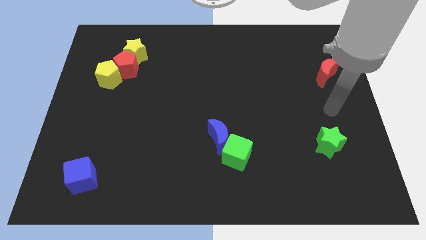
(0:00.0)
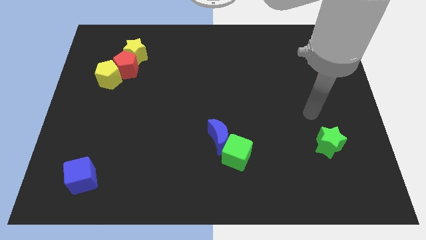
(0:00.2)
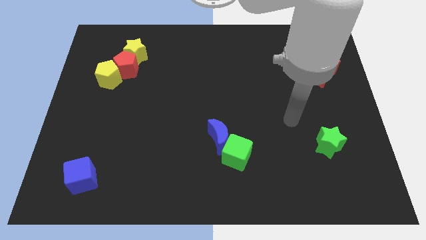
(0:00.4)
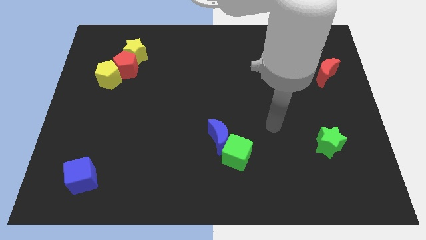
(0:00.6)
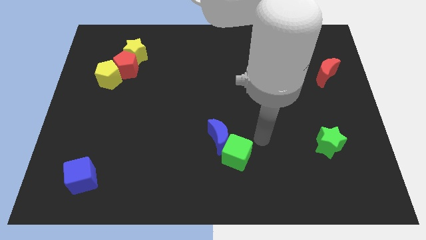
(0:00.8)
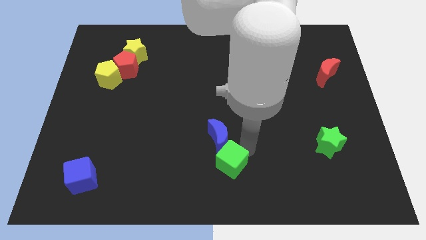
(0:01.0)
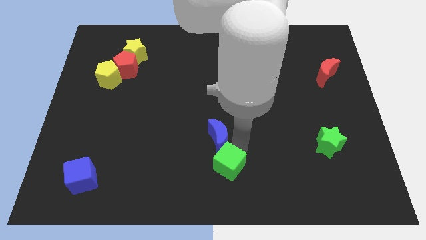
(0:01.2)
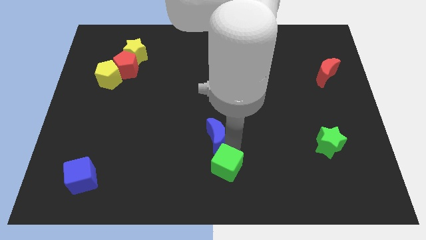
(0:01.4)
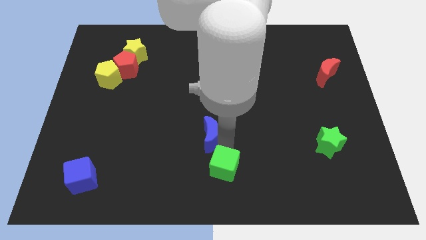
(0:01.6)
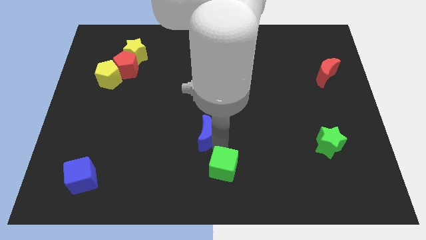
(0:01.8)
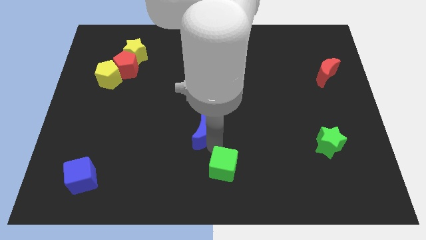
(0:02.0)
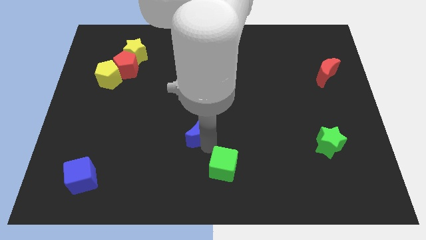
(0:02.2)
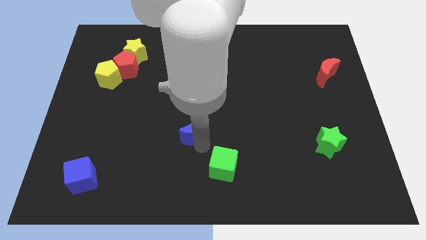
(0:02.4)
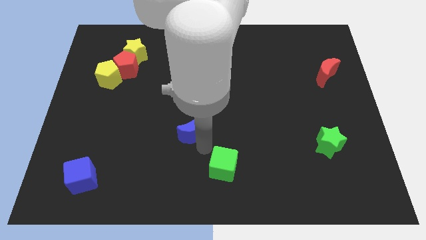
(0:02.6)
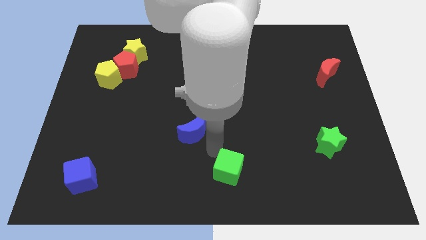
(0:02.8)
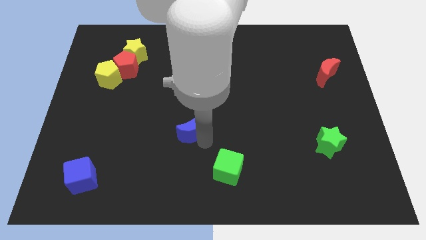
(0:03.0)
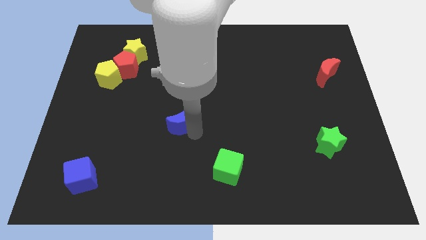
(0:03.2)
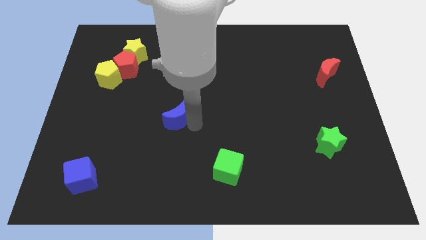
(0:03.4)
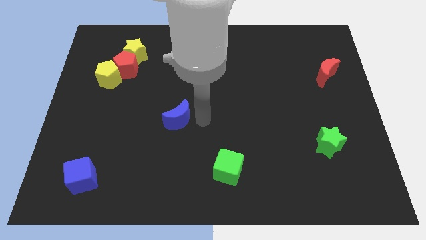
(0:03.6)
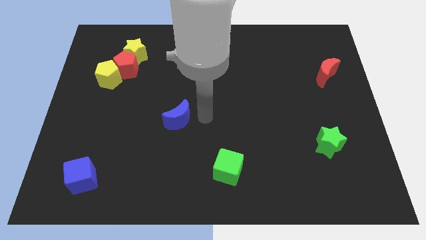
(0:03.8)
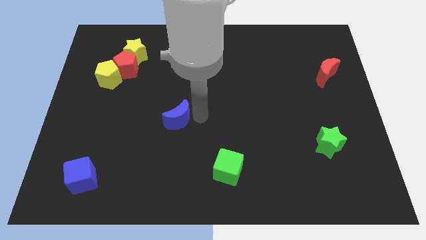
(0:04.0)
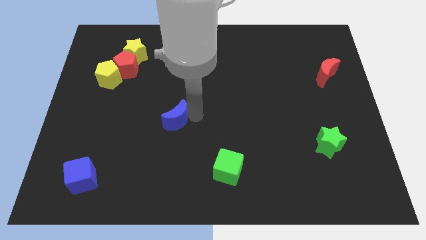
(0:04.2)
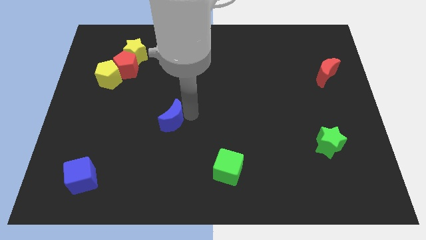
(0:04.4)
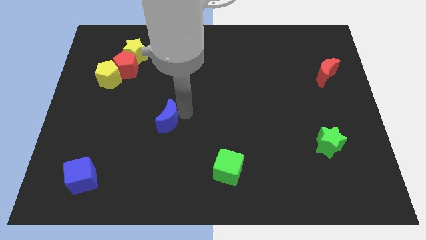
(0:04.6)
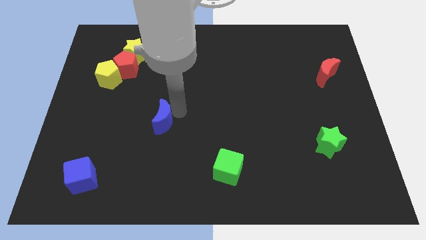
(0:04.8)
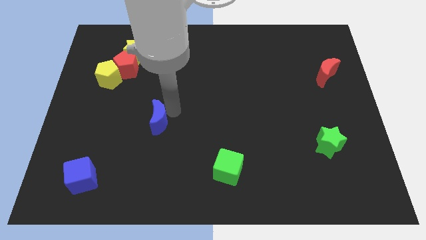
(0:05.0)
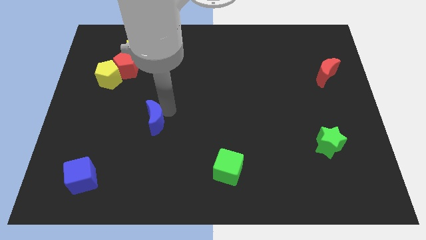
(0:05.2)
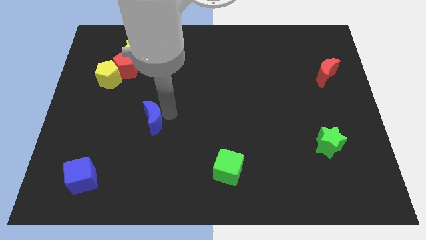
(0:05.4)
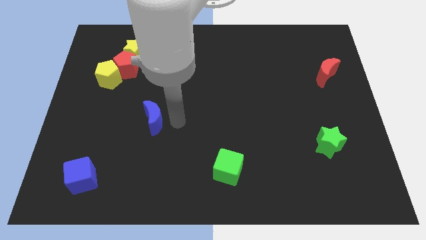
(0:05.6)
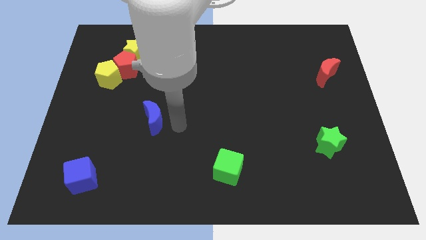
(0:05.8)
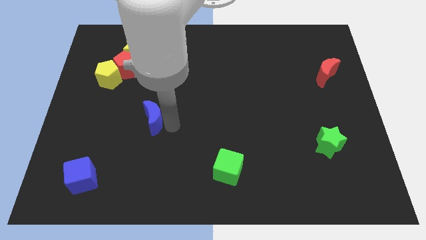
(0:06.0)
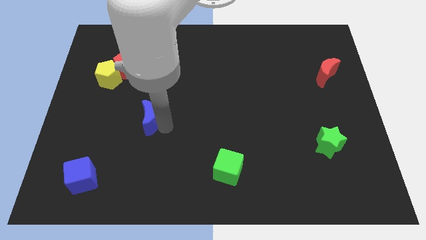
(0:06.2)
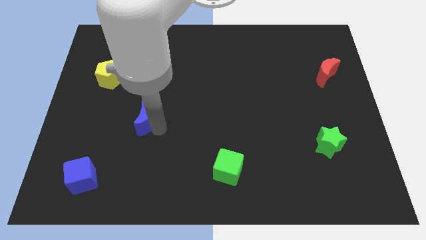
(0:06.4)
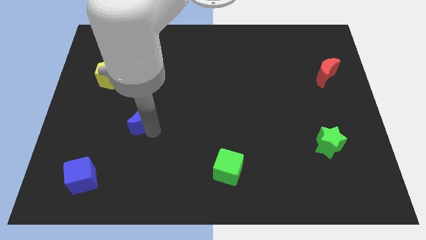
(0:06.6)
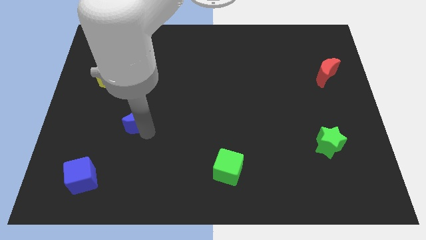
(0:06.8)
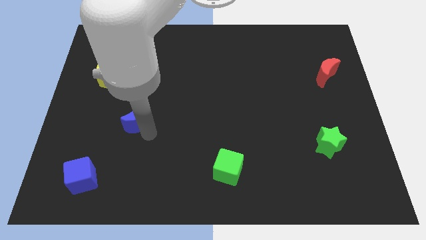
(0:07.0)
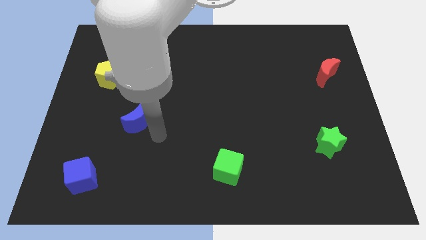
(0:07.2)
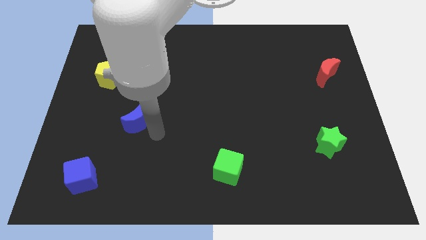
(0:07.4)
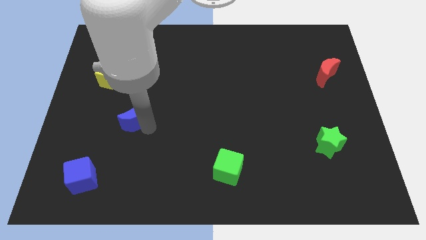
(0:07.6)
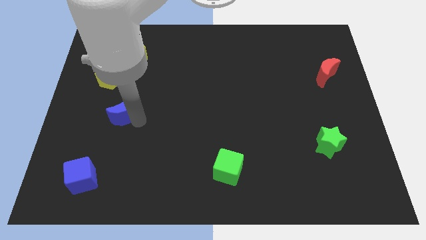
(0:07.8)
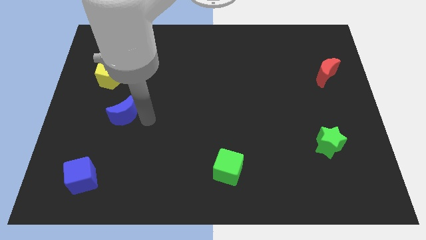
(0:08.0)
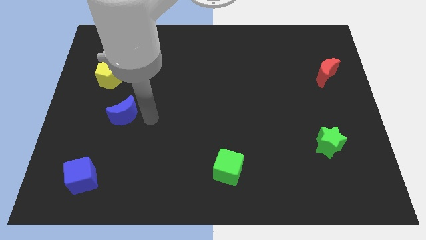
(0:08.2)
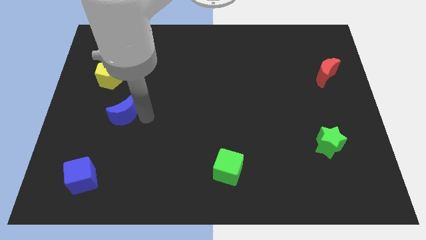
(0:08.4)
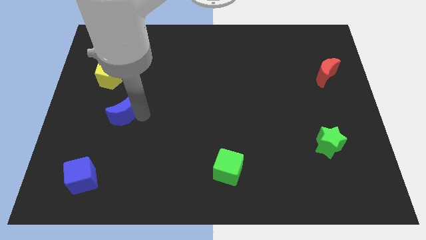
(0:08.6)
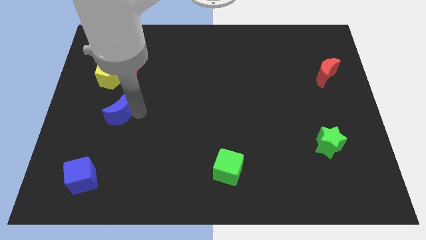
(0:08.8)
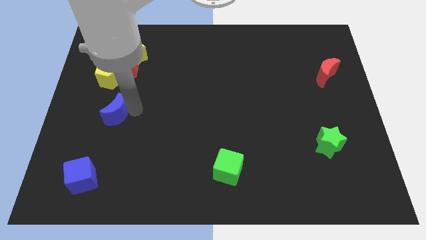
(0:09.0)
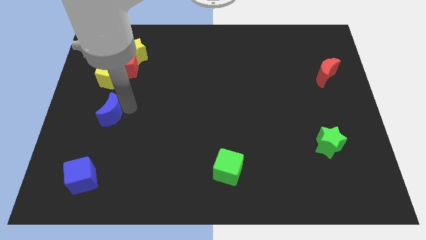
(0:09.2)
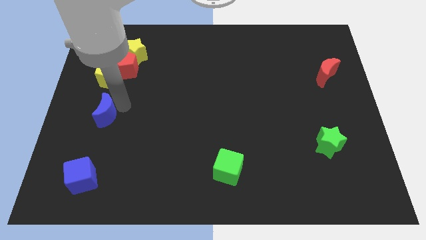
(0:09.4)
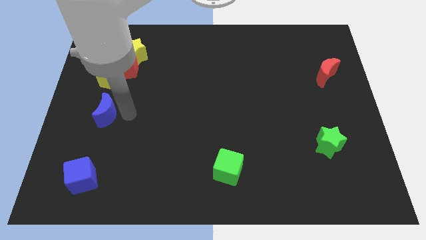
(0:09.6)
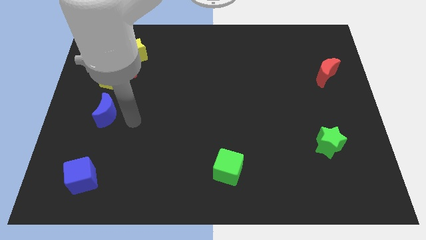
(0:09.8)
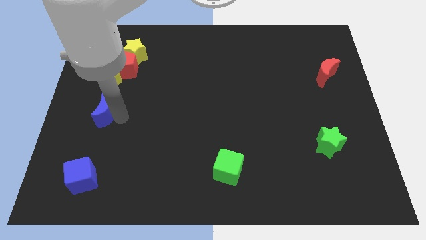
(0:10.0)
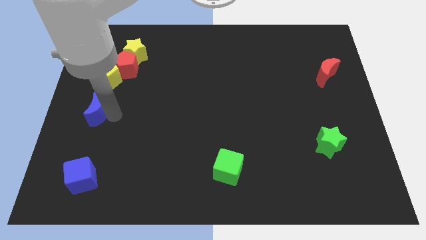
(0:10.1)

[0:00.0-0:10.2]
push the blue moon to the center left
